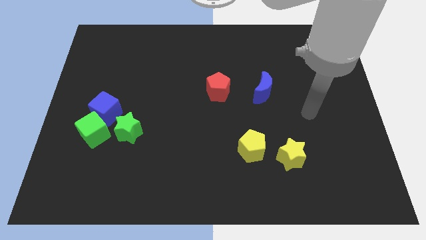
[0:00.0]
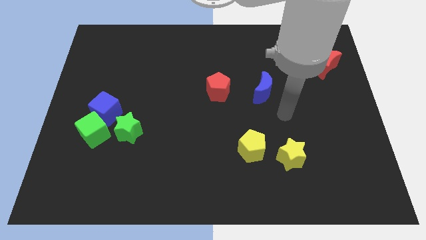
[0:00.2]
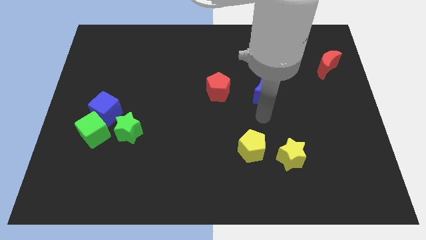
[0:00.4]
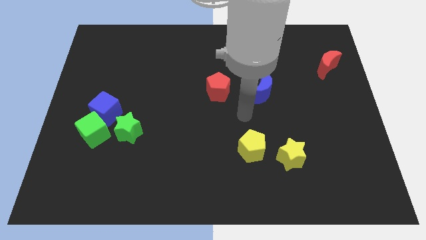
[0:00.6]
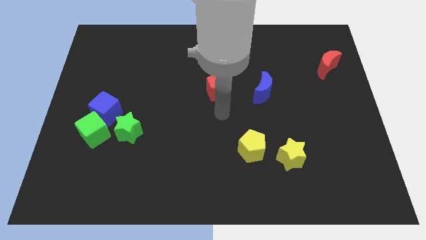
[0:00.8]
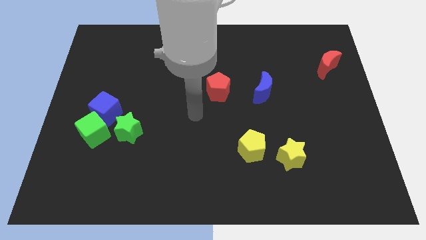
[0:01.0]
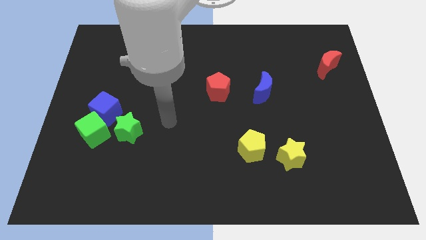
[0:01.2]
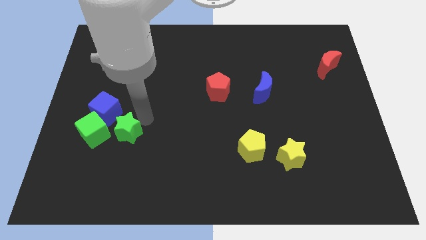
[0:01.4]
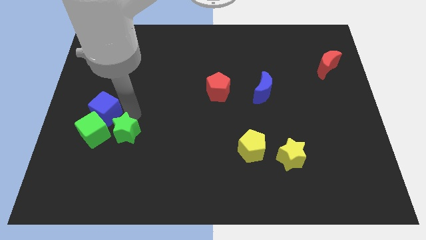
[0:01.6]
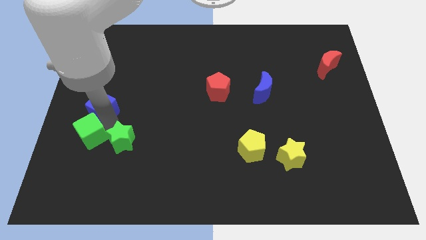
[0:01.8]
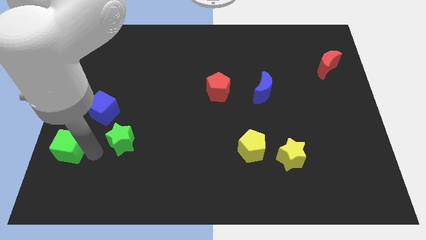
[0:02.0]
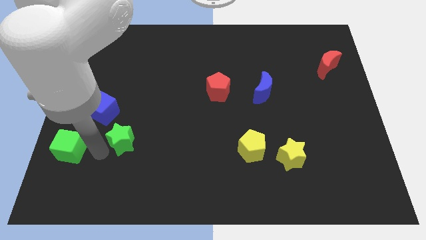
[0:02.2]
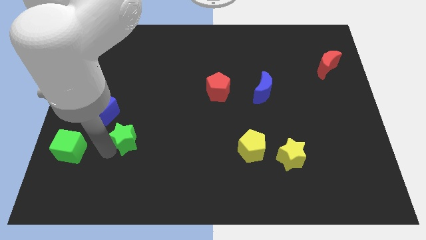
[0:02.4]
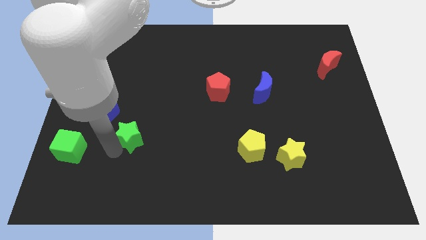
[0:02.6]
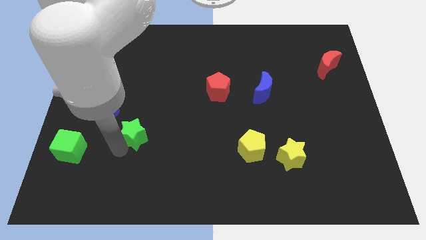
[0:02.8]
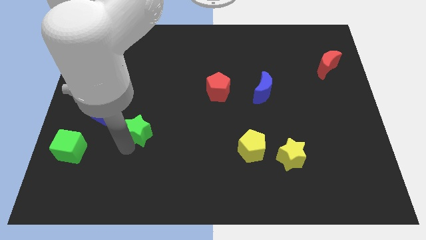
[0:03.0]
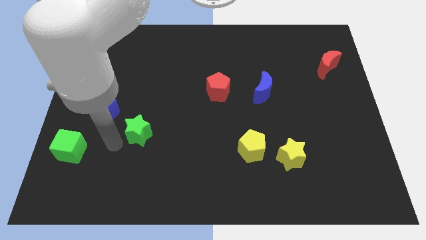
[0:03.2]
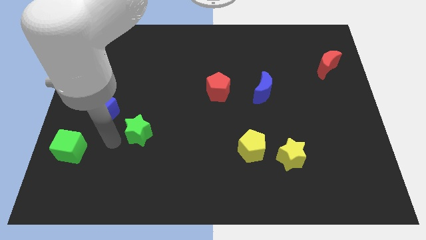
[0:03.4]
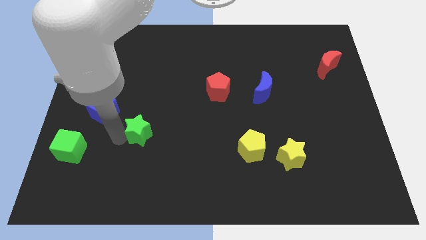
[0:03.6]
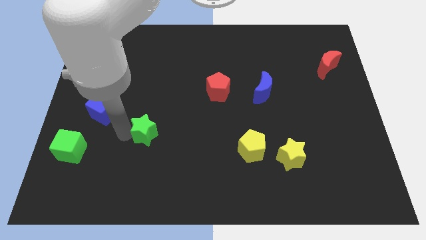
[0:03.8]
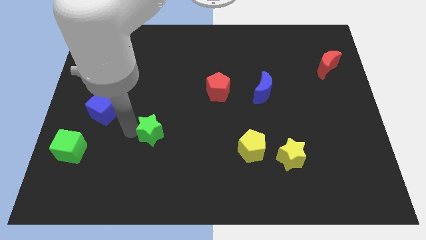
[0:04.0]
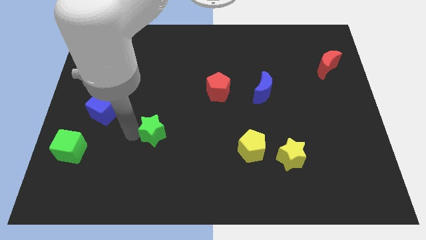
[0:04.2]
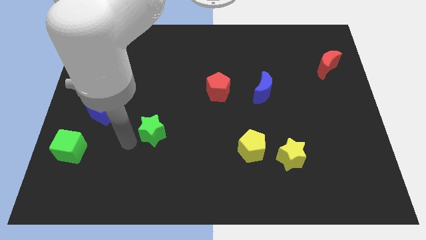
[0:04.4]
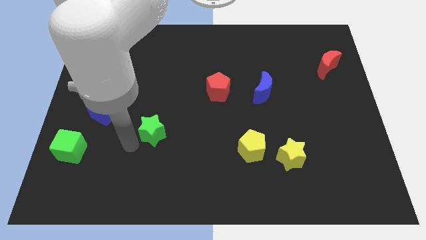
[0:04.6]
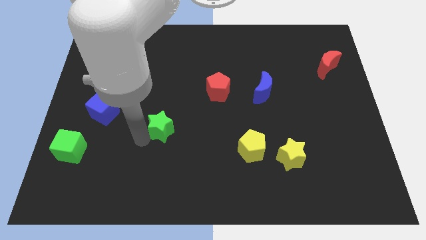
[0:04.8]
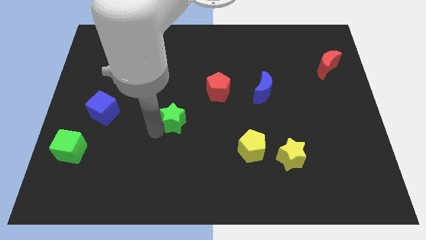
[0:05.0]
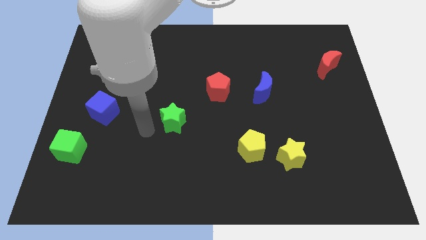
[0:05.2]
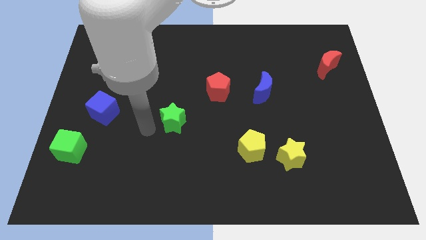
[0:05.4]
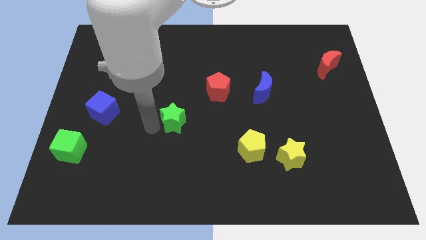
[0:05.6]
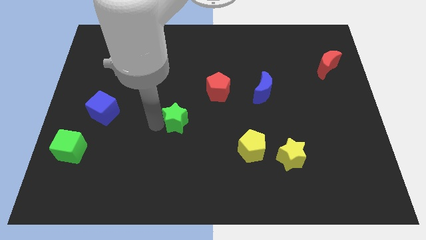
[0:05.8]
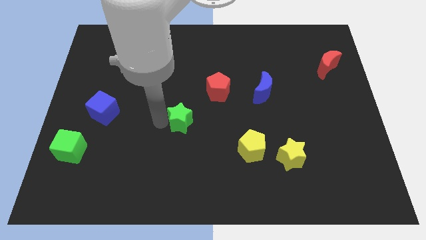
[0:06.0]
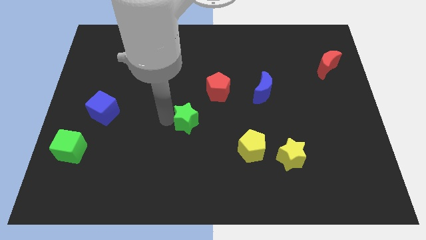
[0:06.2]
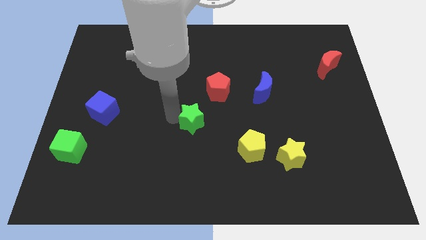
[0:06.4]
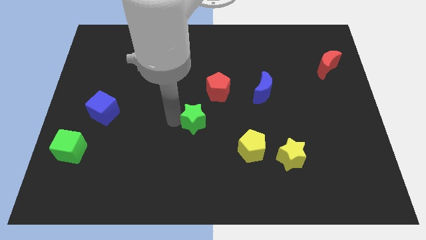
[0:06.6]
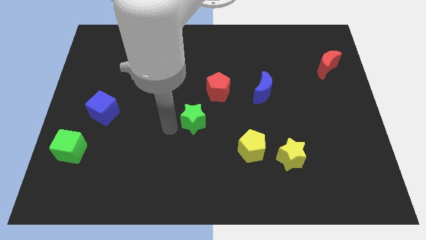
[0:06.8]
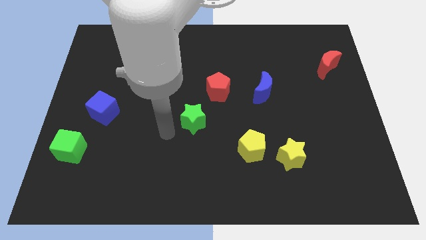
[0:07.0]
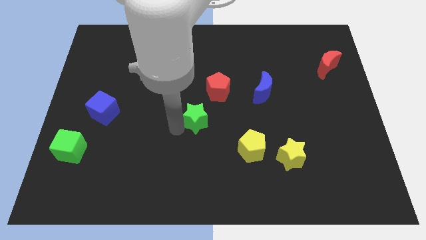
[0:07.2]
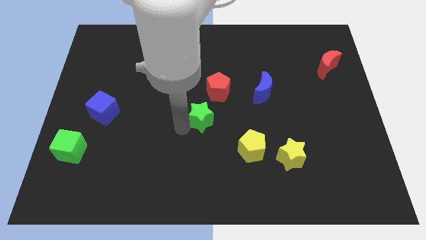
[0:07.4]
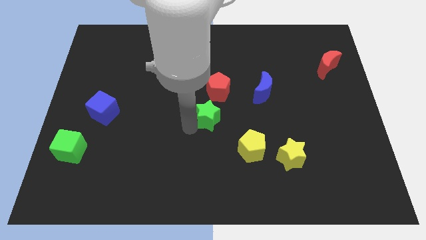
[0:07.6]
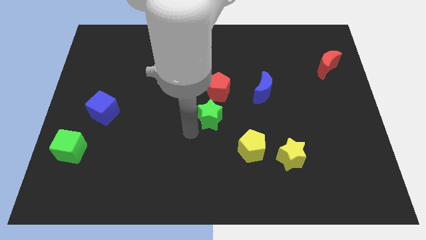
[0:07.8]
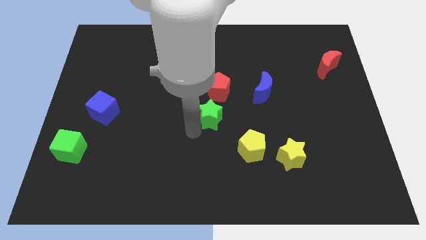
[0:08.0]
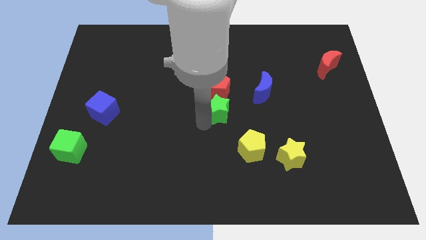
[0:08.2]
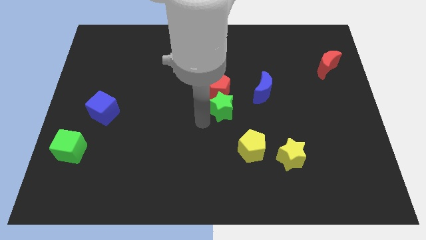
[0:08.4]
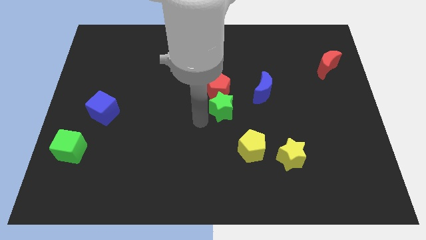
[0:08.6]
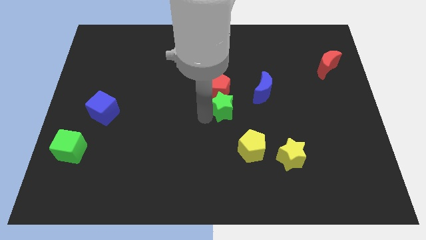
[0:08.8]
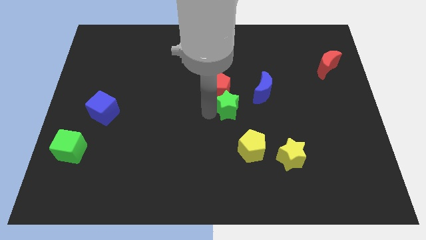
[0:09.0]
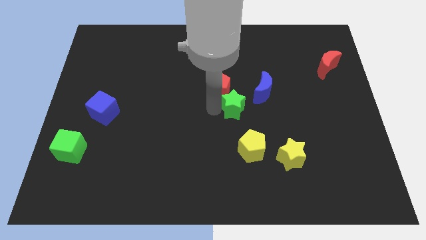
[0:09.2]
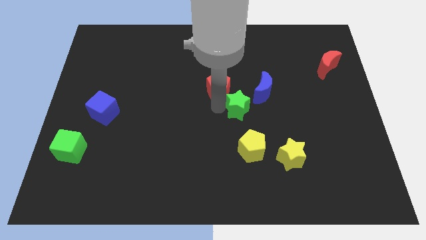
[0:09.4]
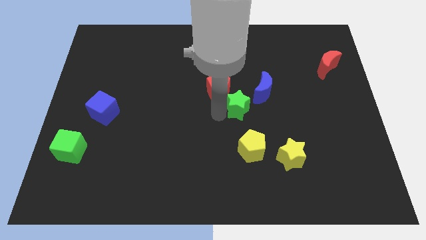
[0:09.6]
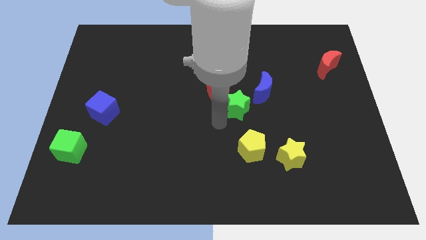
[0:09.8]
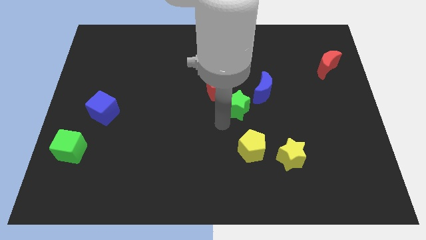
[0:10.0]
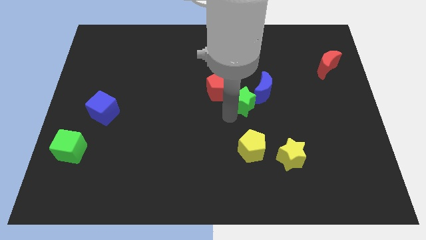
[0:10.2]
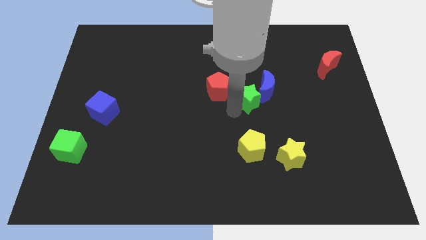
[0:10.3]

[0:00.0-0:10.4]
slide the green star close to the blue moon

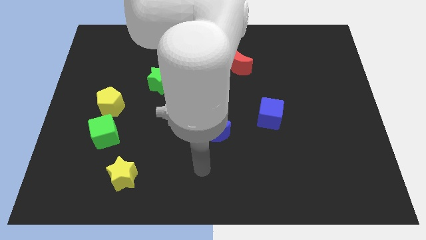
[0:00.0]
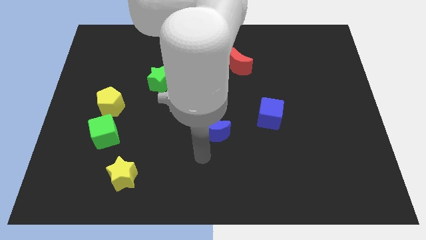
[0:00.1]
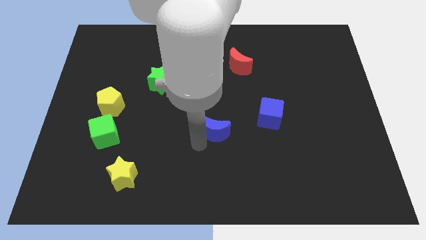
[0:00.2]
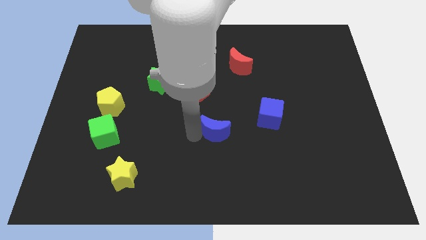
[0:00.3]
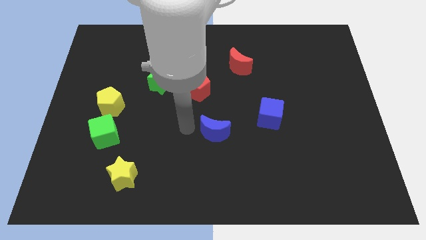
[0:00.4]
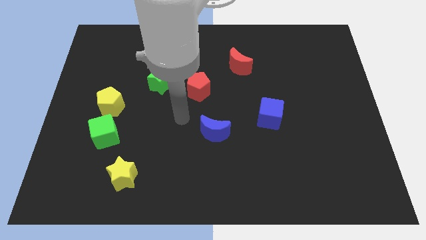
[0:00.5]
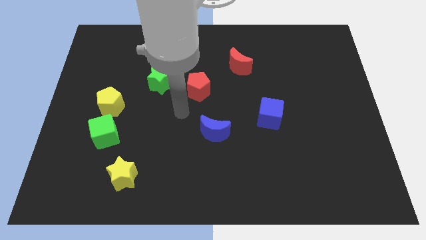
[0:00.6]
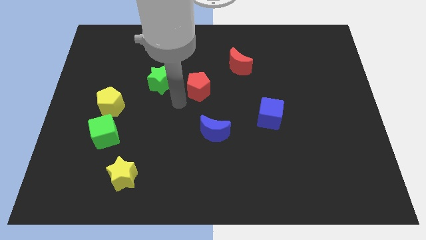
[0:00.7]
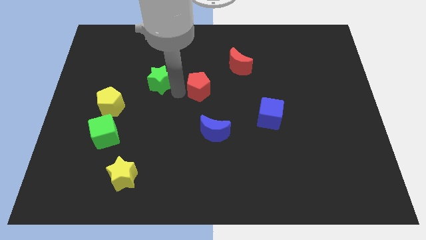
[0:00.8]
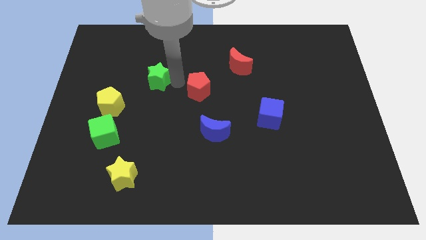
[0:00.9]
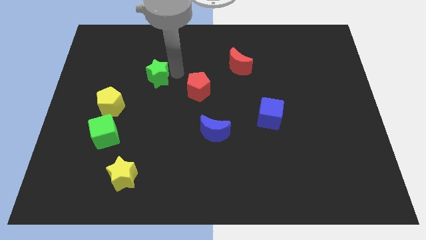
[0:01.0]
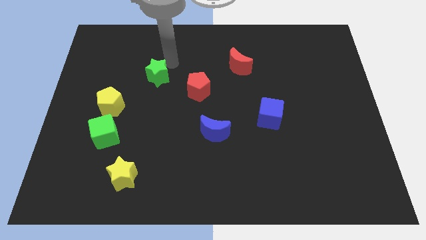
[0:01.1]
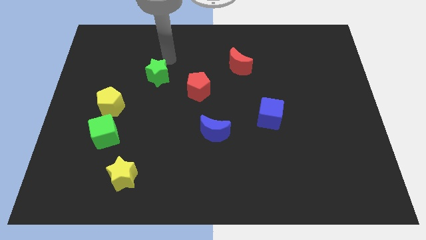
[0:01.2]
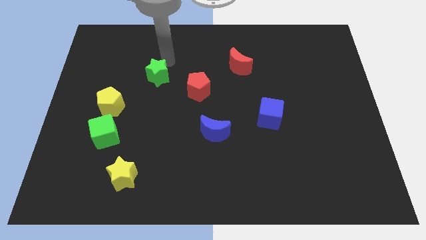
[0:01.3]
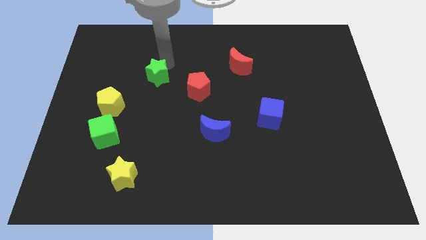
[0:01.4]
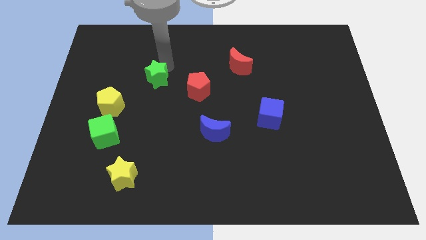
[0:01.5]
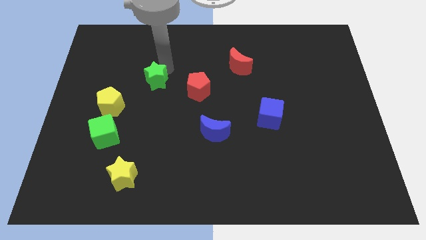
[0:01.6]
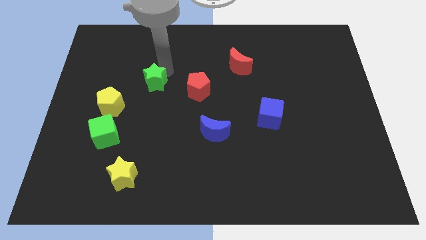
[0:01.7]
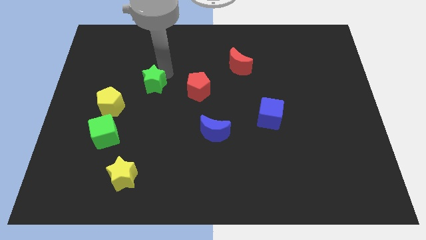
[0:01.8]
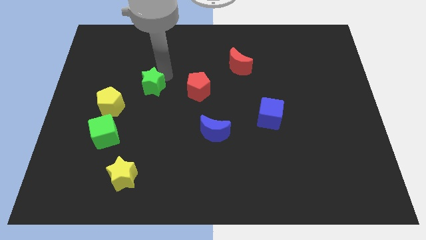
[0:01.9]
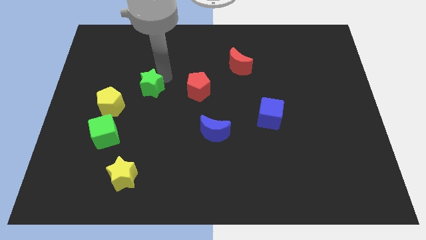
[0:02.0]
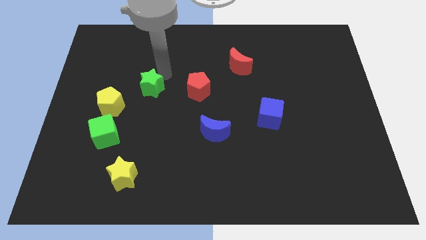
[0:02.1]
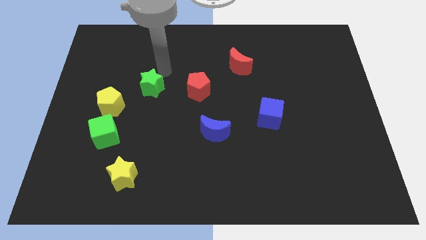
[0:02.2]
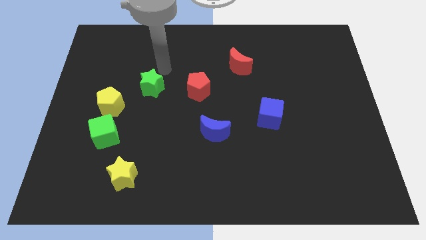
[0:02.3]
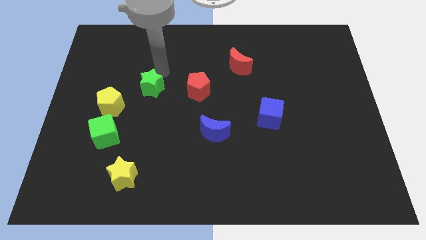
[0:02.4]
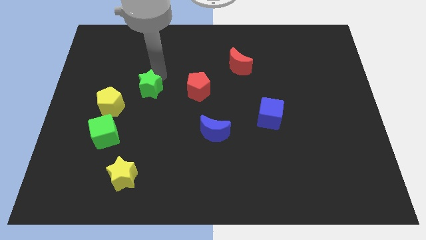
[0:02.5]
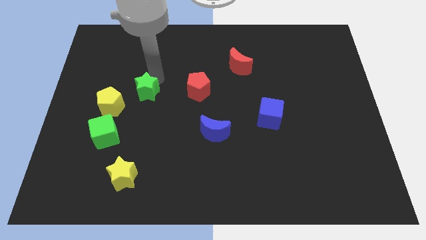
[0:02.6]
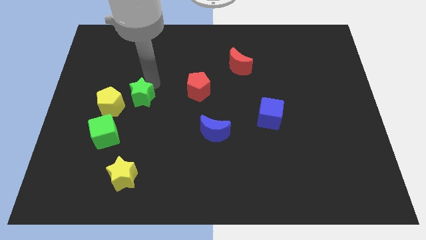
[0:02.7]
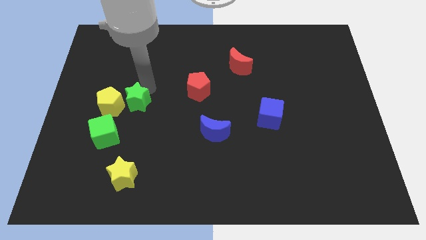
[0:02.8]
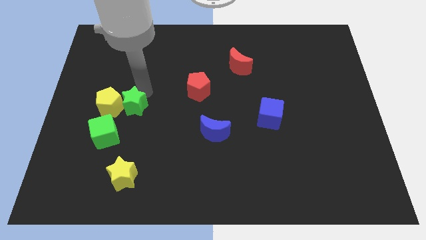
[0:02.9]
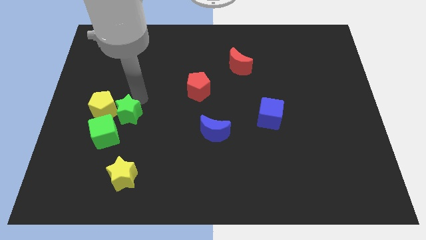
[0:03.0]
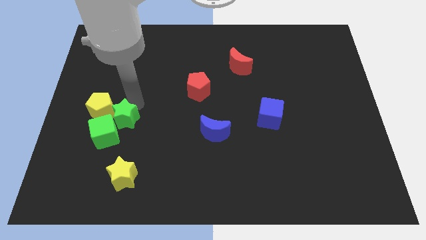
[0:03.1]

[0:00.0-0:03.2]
push the green star close to the green cube
